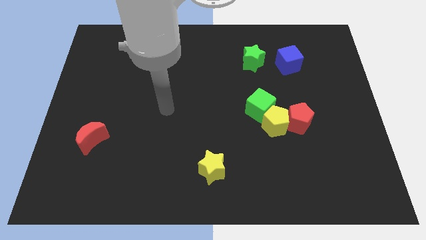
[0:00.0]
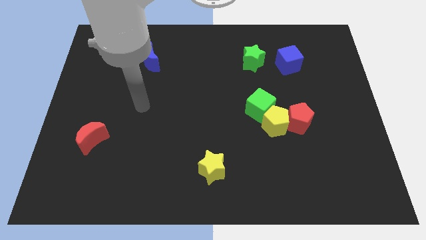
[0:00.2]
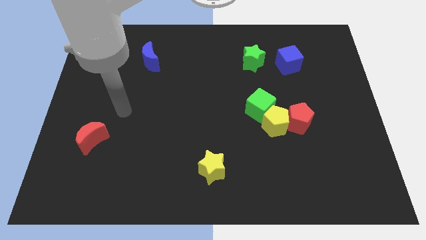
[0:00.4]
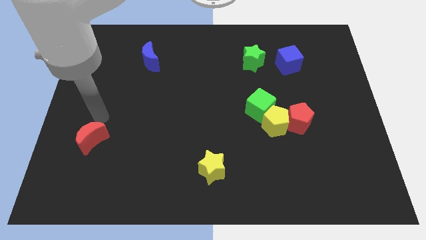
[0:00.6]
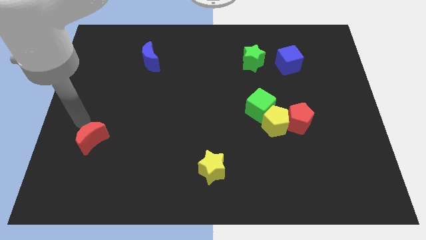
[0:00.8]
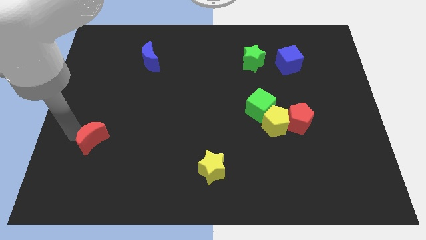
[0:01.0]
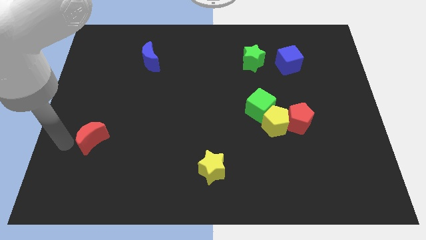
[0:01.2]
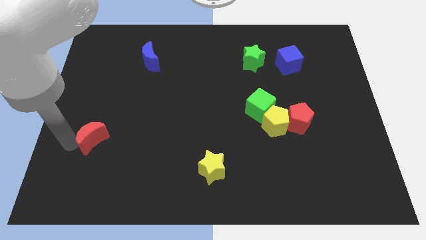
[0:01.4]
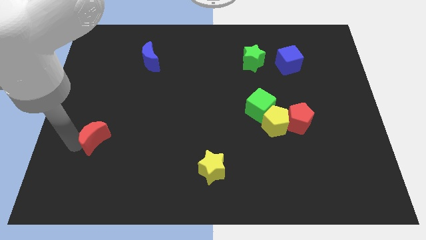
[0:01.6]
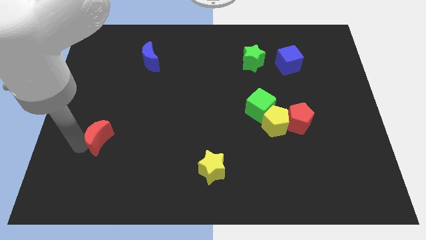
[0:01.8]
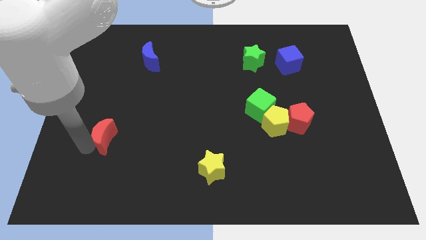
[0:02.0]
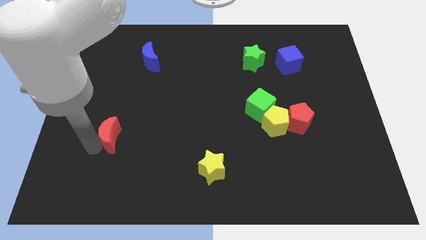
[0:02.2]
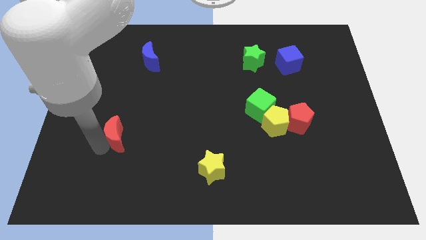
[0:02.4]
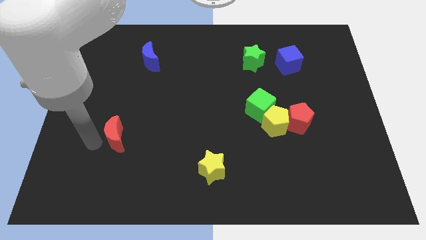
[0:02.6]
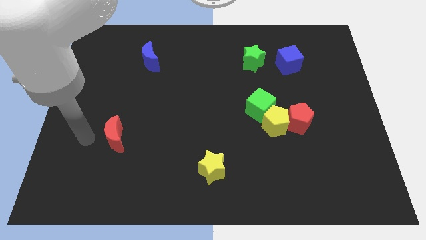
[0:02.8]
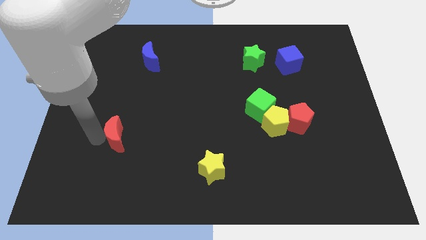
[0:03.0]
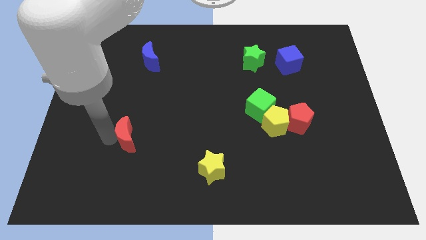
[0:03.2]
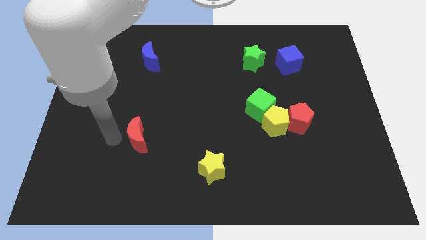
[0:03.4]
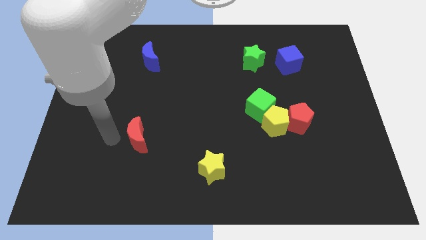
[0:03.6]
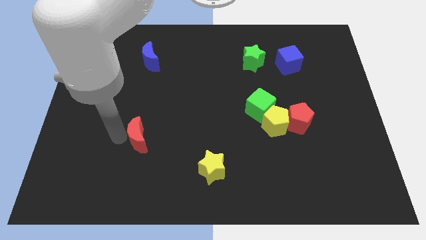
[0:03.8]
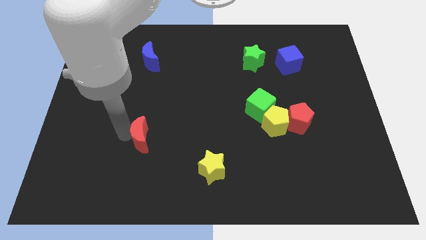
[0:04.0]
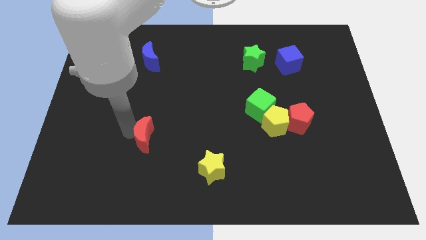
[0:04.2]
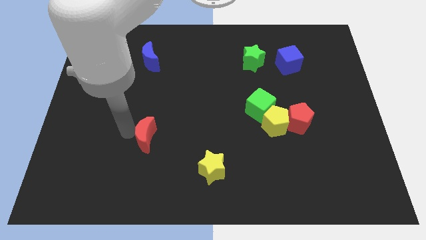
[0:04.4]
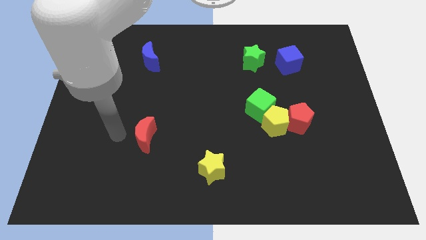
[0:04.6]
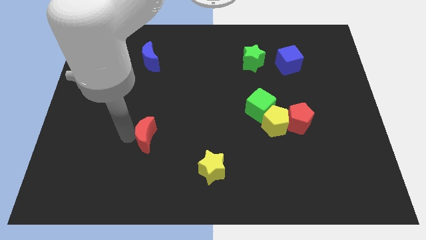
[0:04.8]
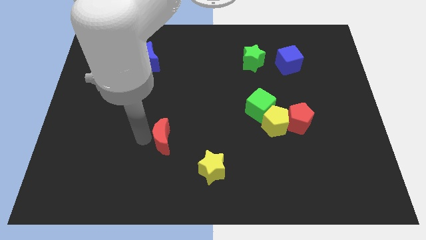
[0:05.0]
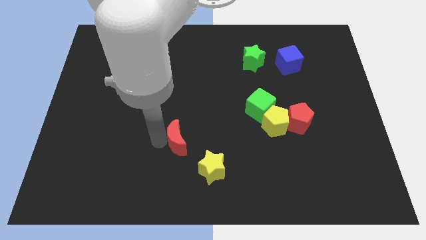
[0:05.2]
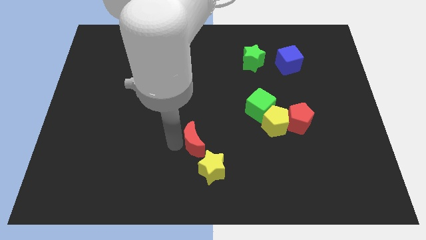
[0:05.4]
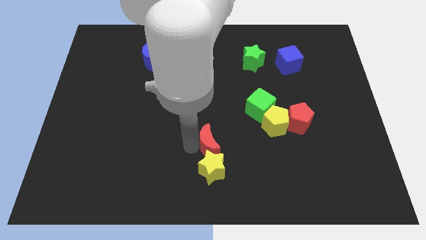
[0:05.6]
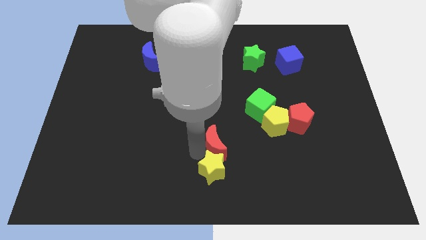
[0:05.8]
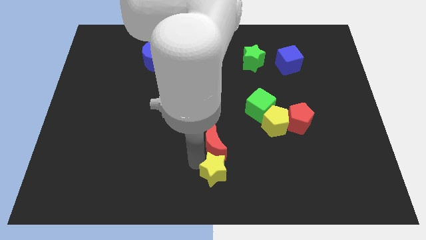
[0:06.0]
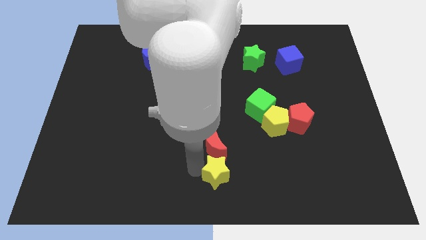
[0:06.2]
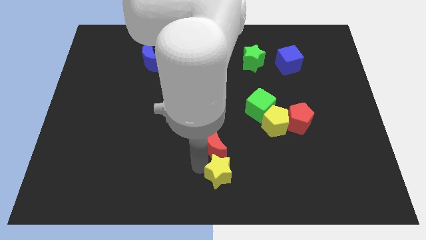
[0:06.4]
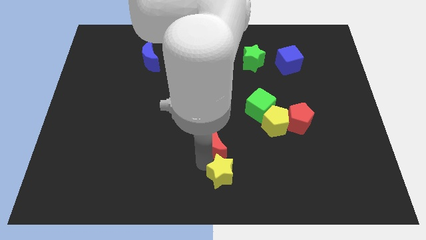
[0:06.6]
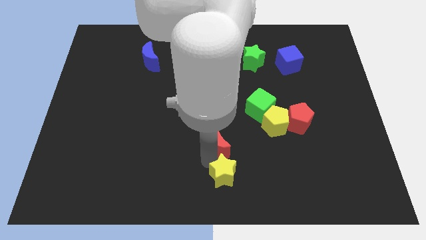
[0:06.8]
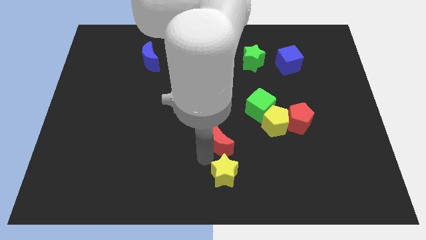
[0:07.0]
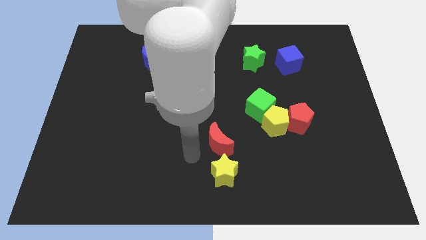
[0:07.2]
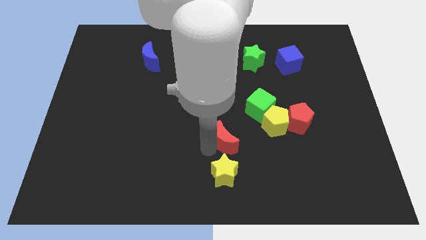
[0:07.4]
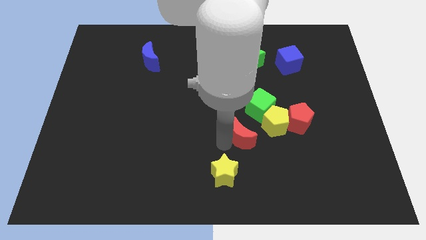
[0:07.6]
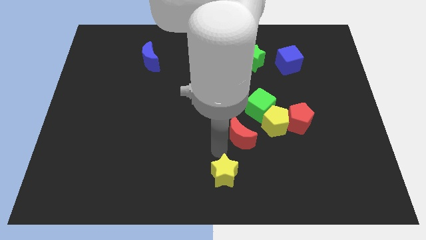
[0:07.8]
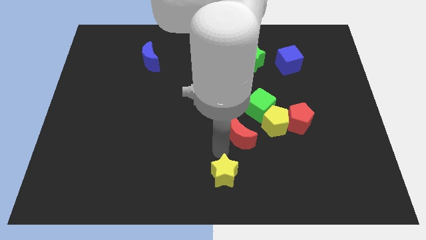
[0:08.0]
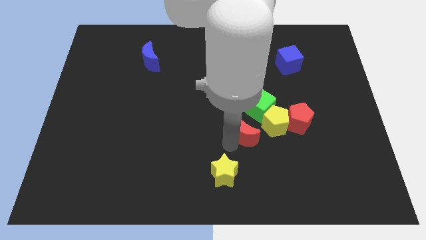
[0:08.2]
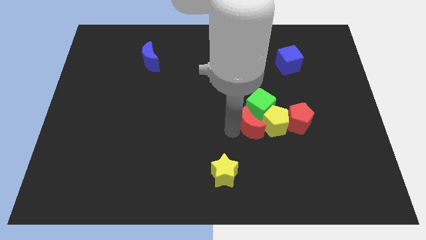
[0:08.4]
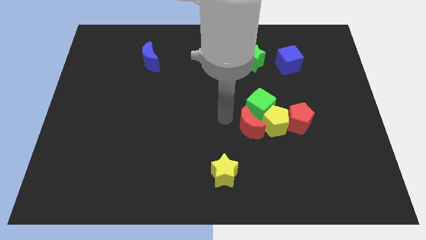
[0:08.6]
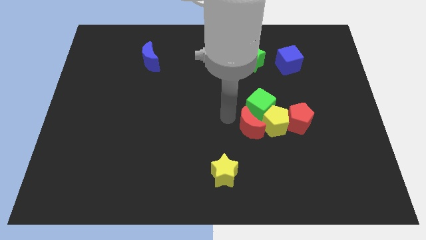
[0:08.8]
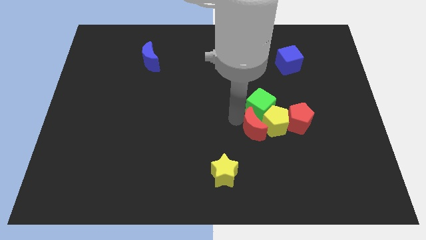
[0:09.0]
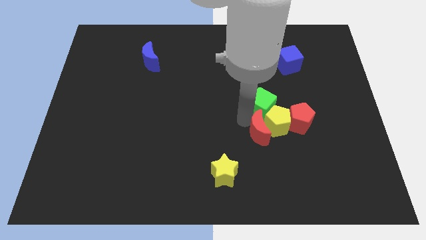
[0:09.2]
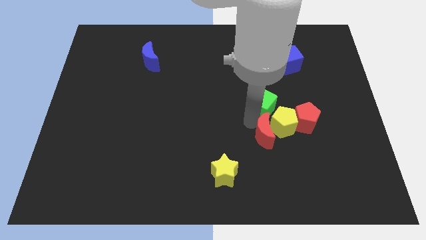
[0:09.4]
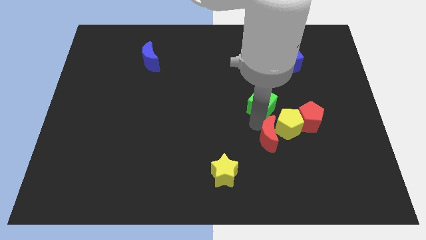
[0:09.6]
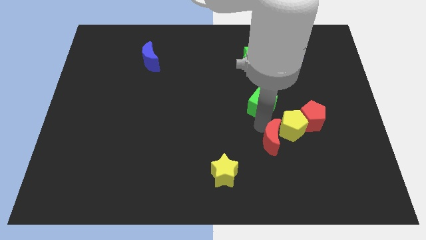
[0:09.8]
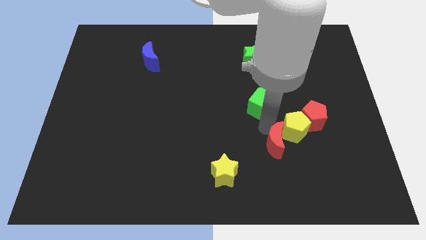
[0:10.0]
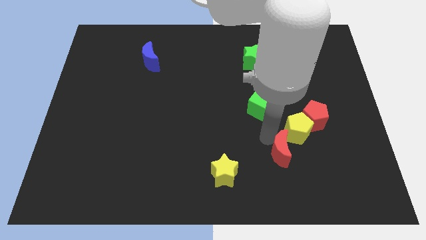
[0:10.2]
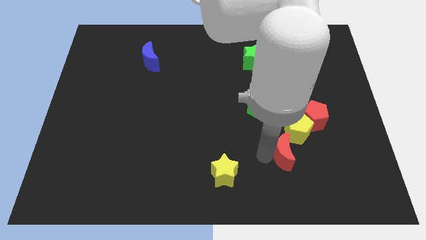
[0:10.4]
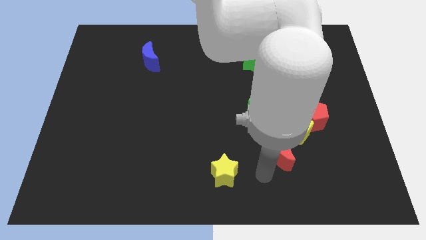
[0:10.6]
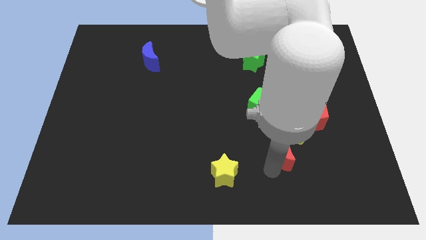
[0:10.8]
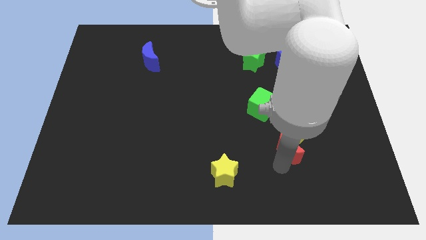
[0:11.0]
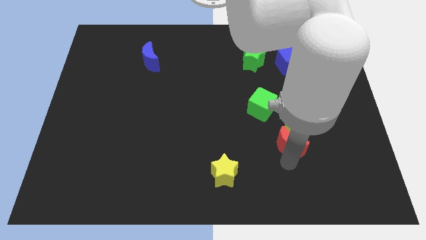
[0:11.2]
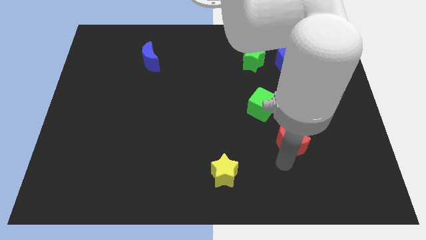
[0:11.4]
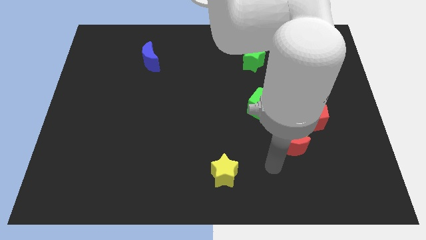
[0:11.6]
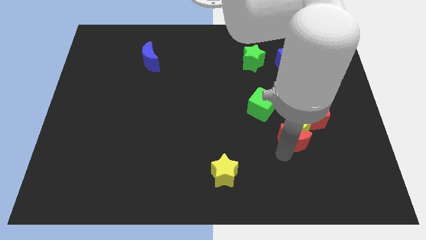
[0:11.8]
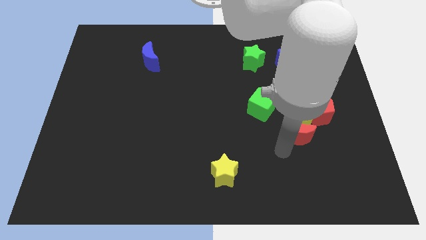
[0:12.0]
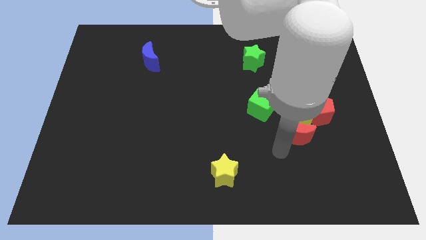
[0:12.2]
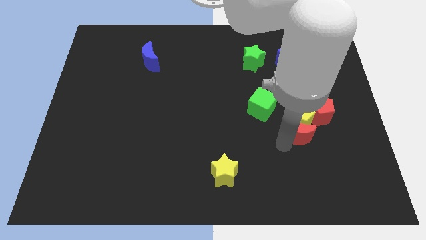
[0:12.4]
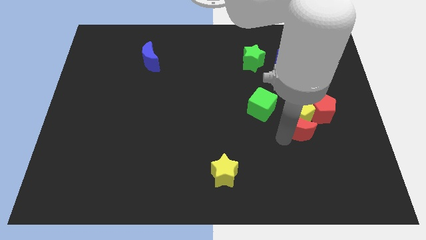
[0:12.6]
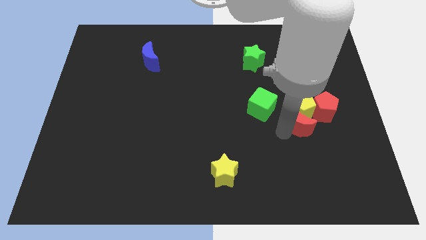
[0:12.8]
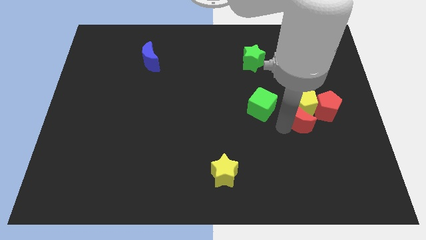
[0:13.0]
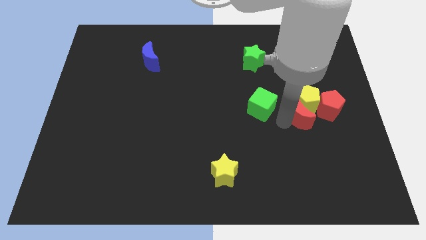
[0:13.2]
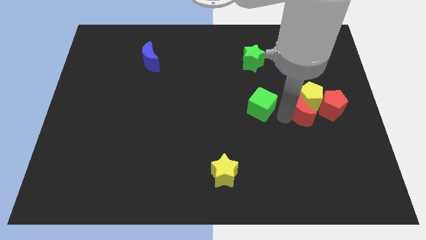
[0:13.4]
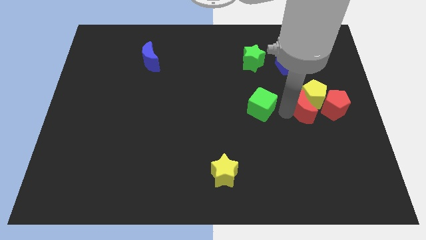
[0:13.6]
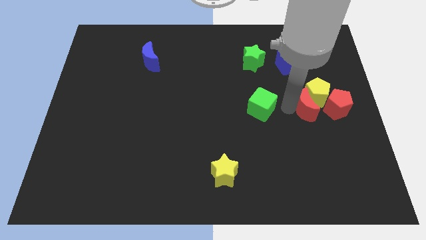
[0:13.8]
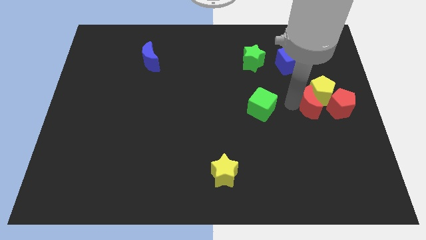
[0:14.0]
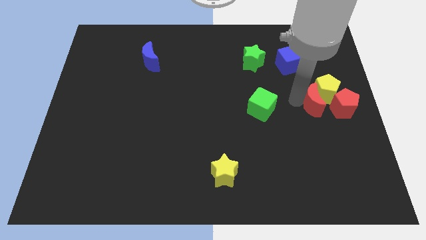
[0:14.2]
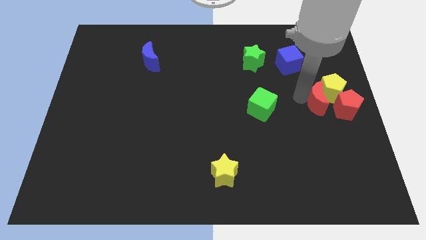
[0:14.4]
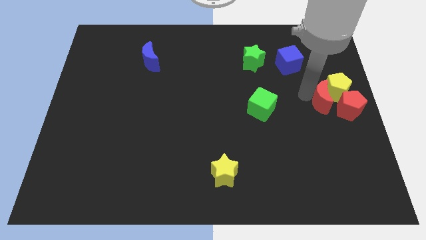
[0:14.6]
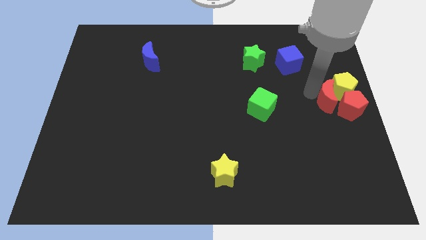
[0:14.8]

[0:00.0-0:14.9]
put the red moon close to the red pentagon
